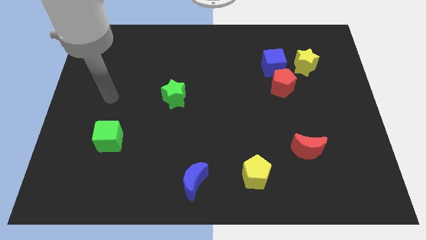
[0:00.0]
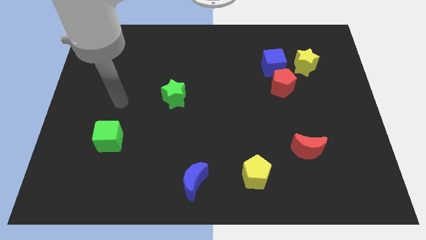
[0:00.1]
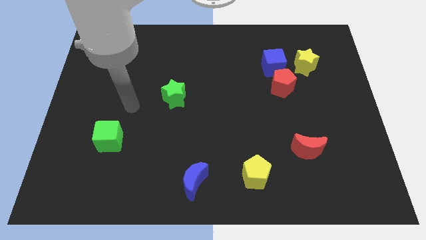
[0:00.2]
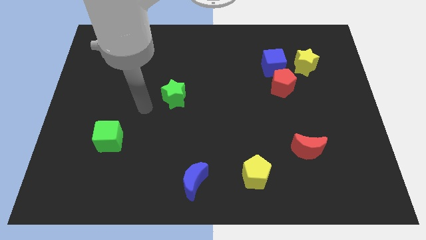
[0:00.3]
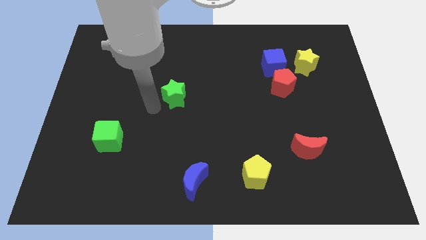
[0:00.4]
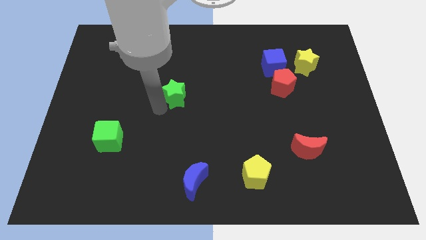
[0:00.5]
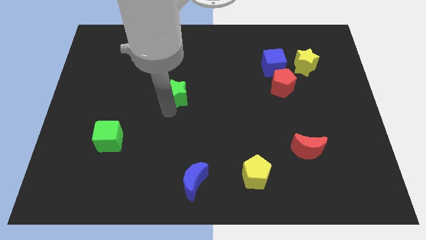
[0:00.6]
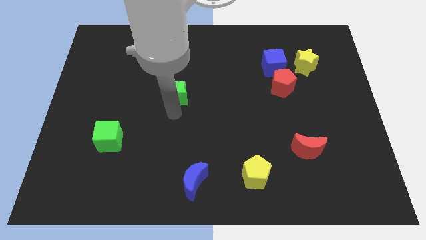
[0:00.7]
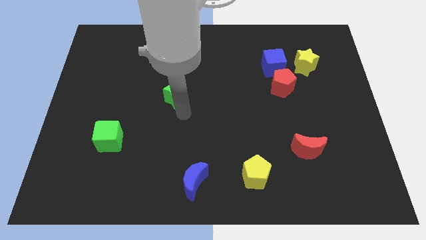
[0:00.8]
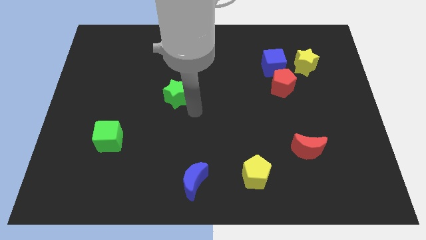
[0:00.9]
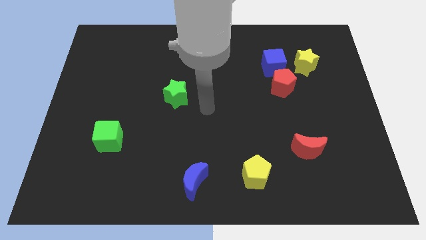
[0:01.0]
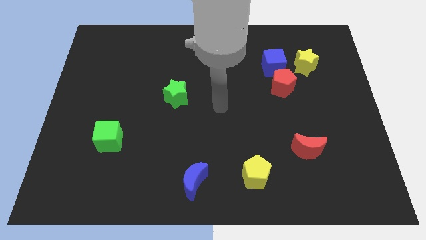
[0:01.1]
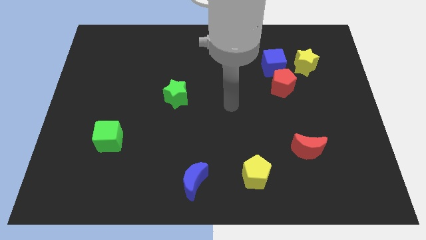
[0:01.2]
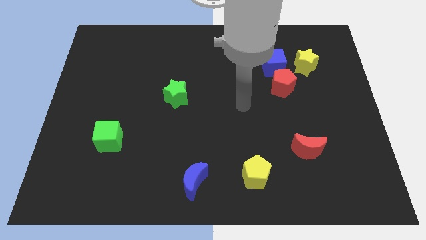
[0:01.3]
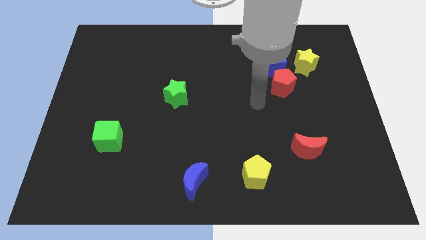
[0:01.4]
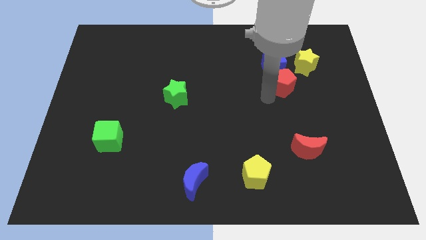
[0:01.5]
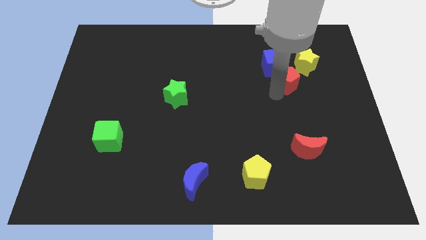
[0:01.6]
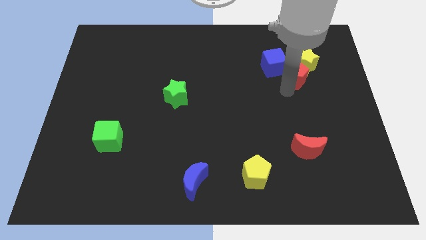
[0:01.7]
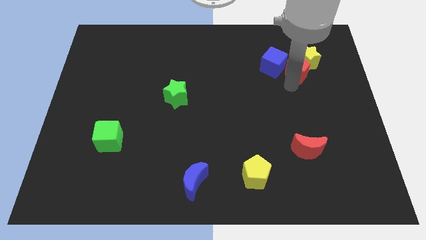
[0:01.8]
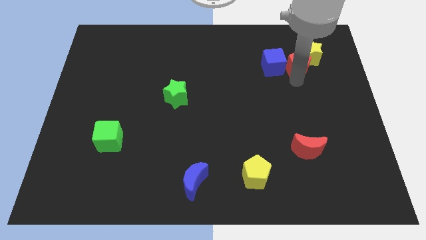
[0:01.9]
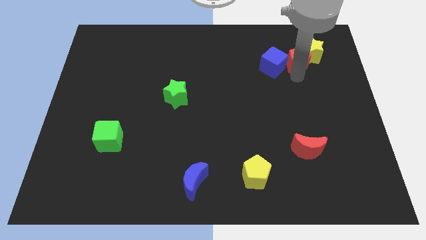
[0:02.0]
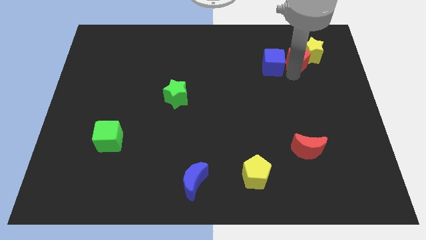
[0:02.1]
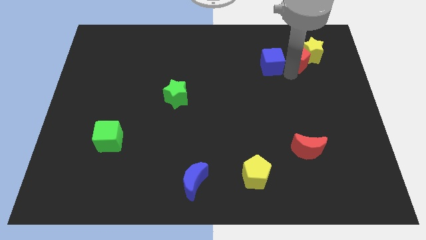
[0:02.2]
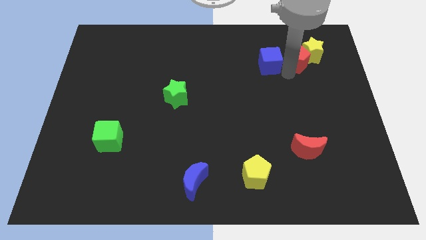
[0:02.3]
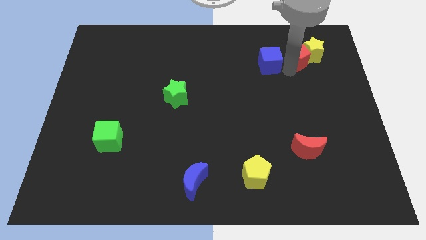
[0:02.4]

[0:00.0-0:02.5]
move the blue cube away from the red pentagon and yellow star

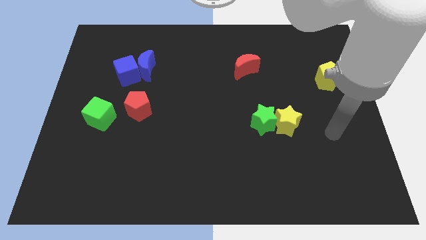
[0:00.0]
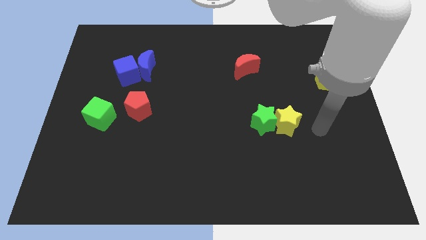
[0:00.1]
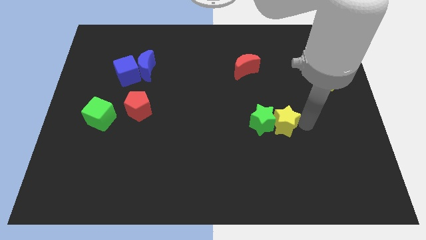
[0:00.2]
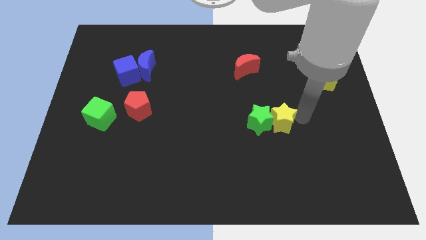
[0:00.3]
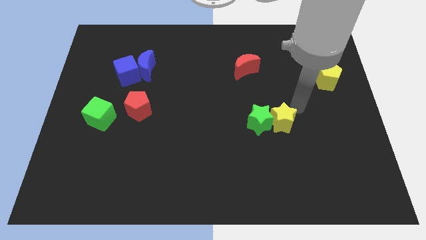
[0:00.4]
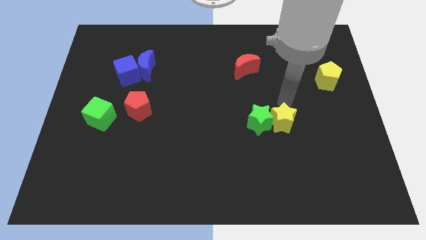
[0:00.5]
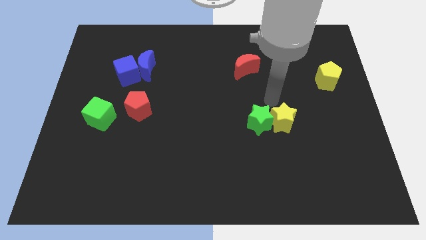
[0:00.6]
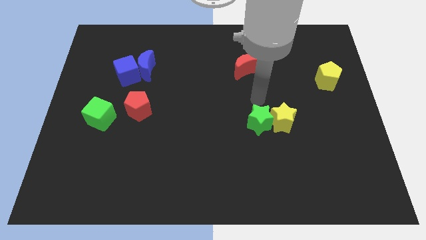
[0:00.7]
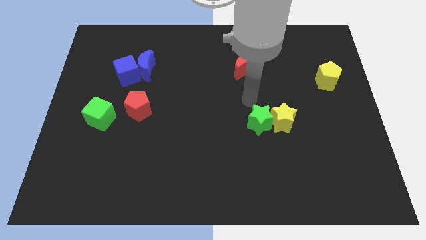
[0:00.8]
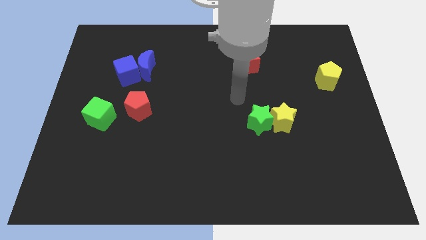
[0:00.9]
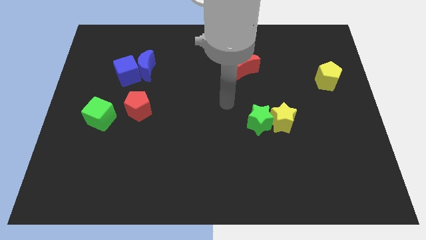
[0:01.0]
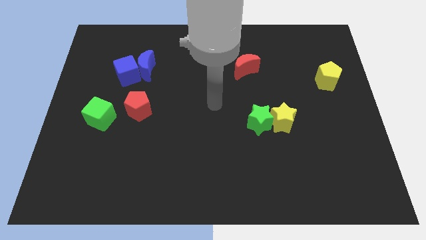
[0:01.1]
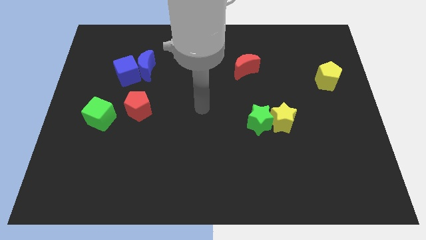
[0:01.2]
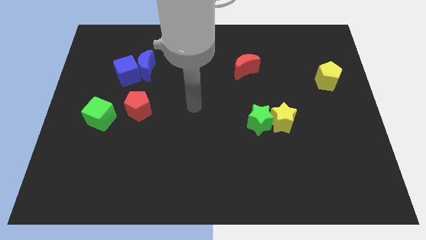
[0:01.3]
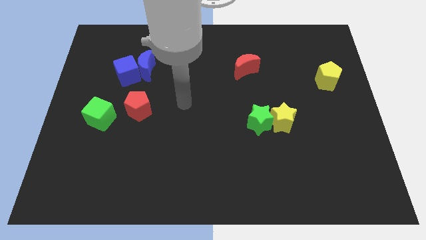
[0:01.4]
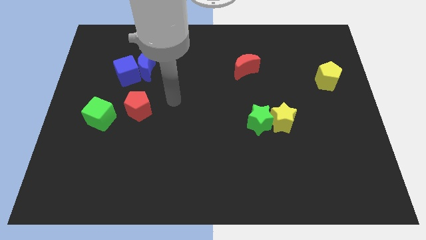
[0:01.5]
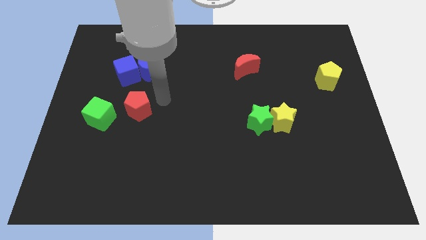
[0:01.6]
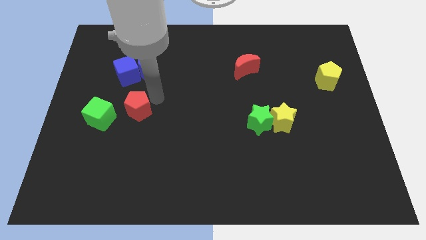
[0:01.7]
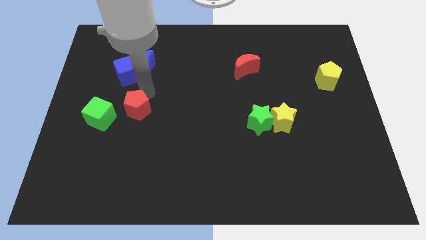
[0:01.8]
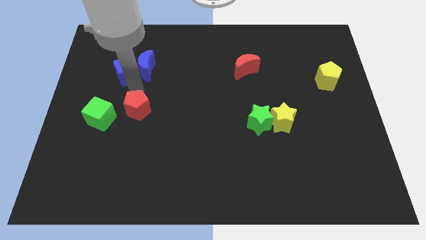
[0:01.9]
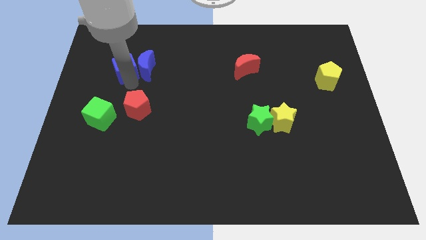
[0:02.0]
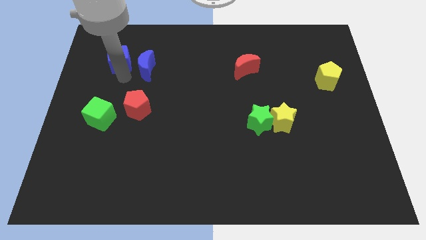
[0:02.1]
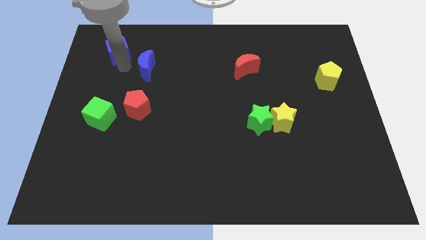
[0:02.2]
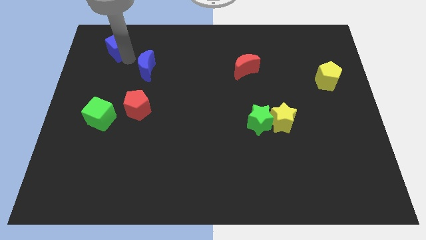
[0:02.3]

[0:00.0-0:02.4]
move the blue moon away from the blue cube

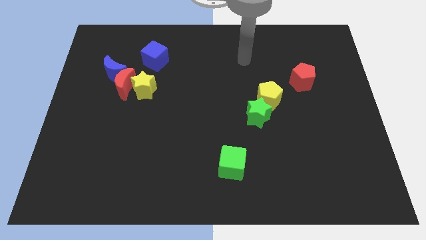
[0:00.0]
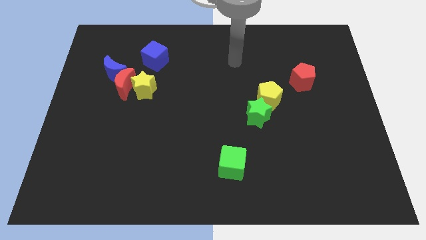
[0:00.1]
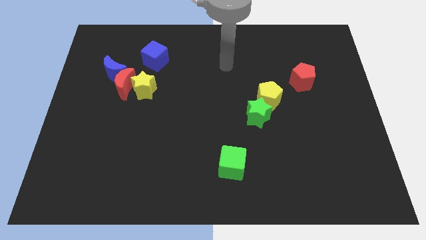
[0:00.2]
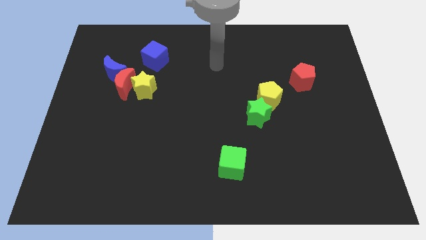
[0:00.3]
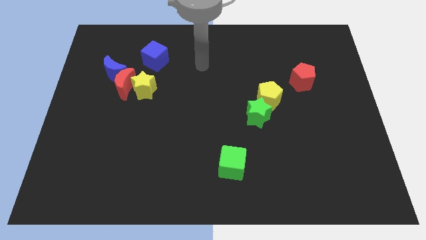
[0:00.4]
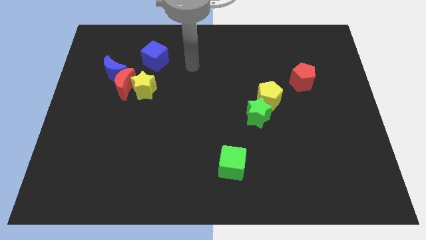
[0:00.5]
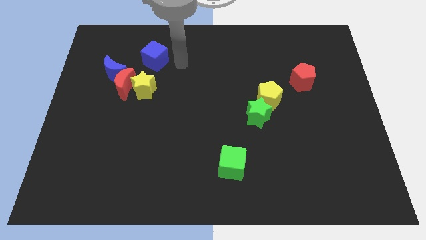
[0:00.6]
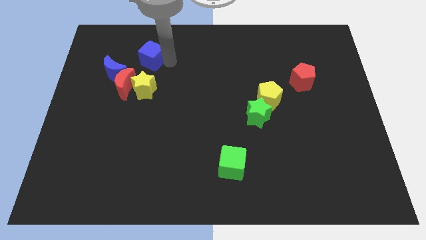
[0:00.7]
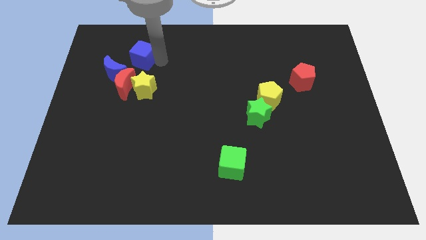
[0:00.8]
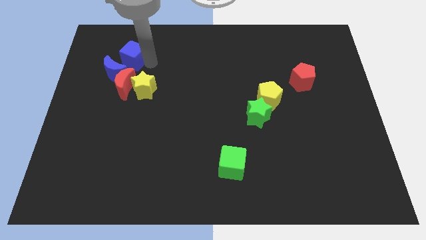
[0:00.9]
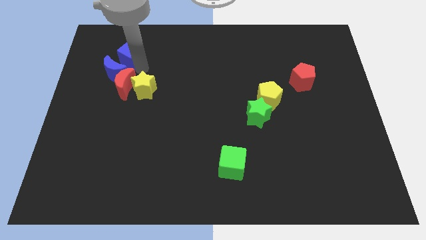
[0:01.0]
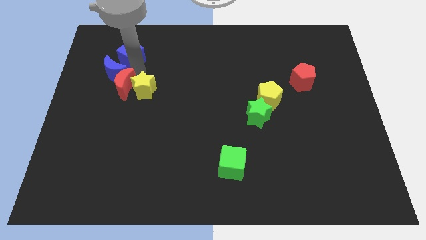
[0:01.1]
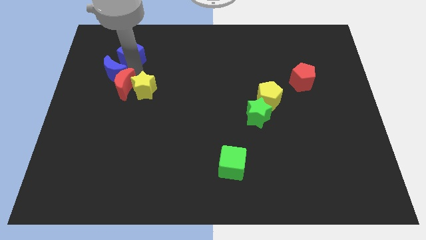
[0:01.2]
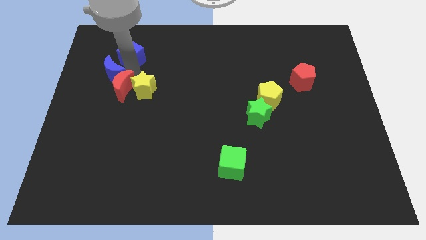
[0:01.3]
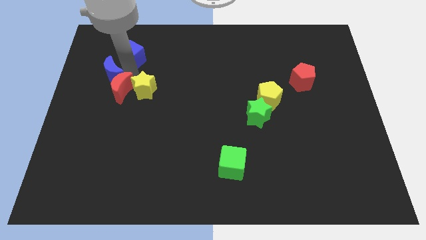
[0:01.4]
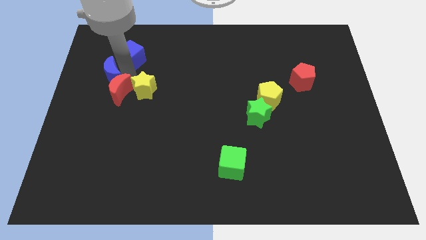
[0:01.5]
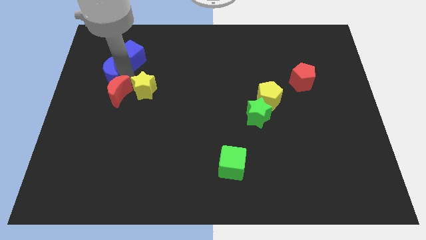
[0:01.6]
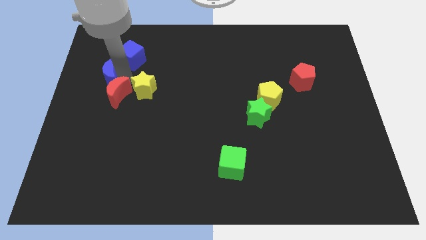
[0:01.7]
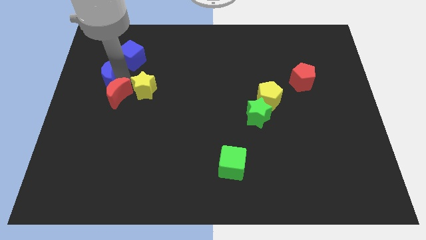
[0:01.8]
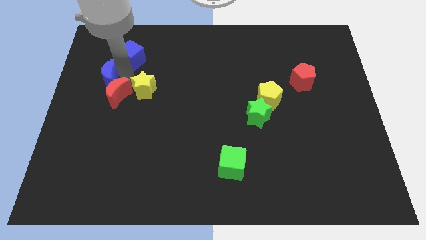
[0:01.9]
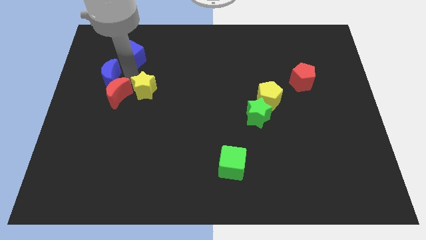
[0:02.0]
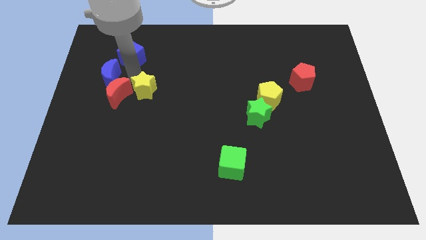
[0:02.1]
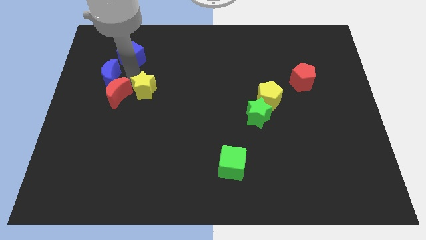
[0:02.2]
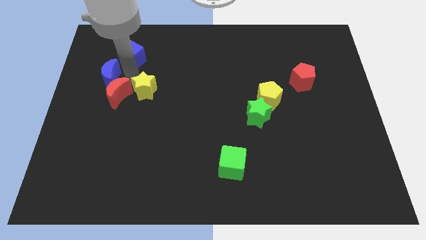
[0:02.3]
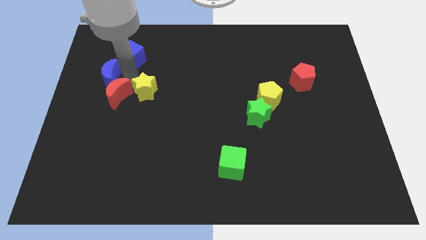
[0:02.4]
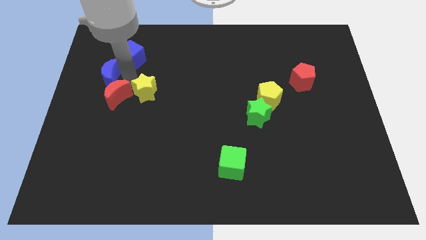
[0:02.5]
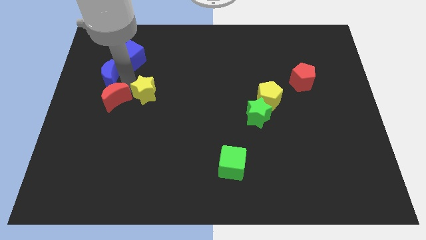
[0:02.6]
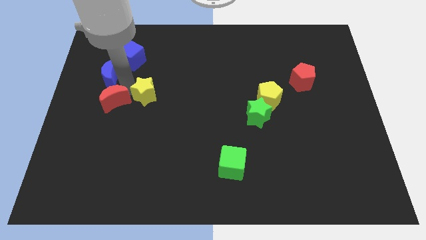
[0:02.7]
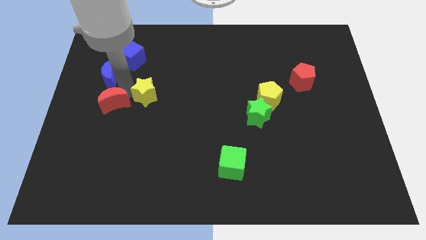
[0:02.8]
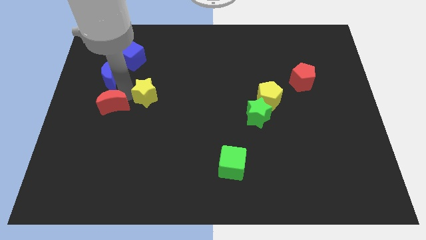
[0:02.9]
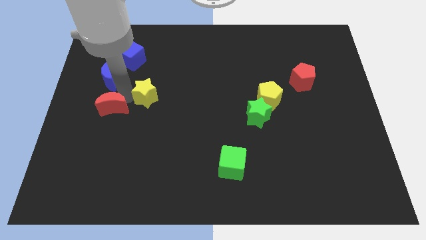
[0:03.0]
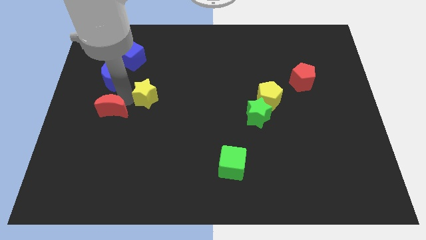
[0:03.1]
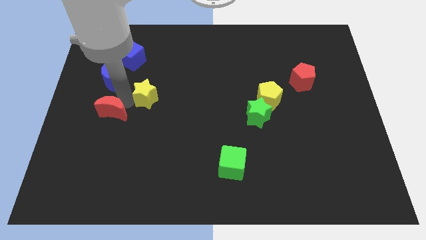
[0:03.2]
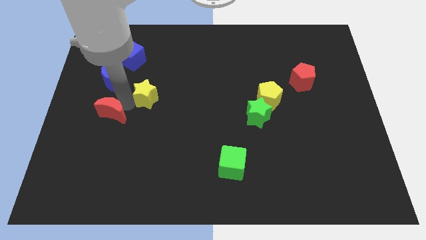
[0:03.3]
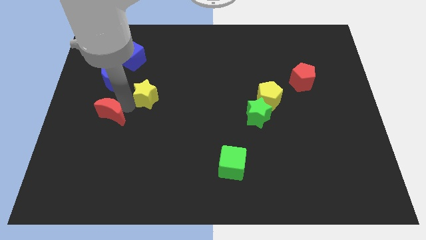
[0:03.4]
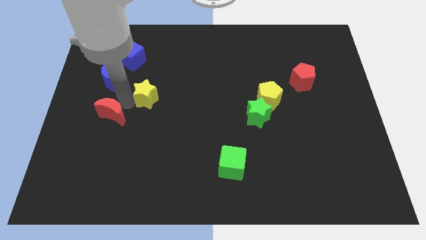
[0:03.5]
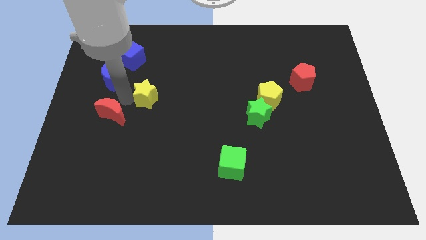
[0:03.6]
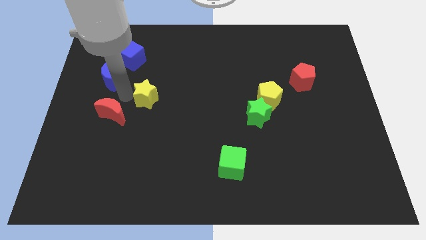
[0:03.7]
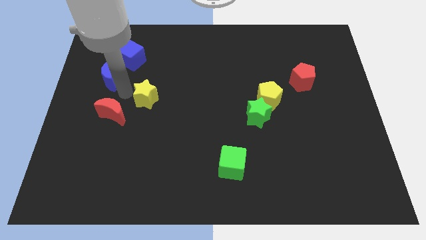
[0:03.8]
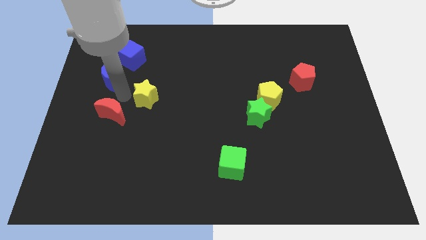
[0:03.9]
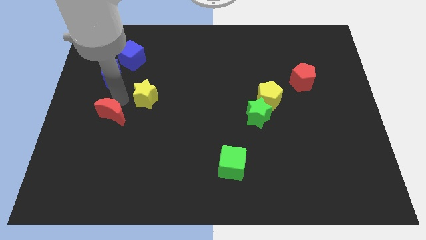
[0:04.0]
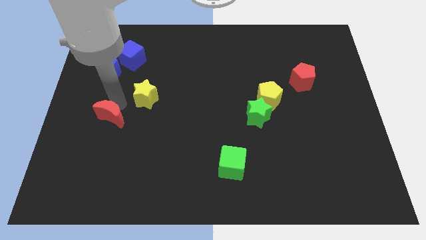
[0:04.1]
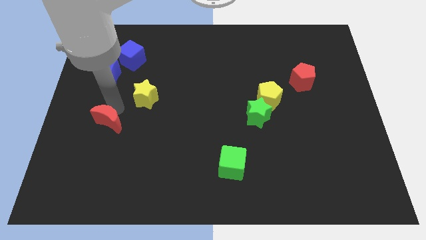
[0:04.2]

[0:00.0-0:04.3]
separate the red moon from the yellow star and blue moon

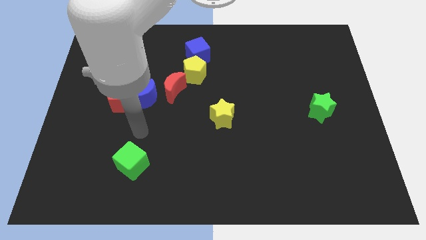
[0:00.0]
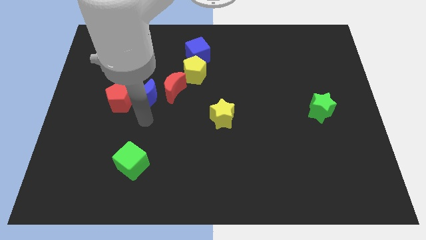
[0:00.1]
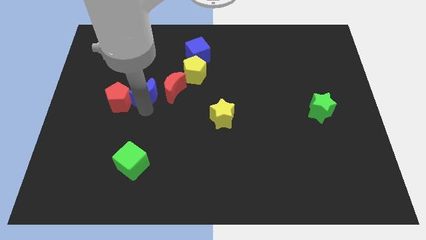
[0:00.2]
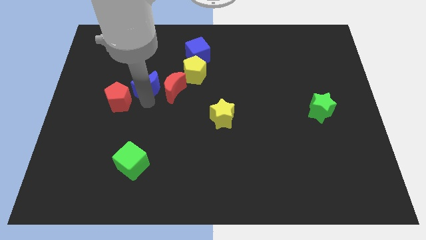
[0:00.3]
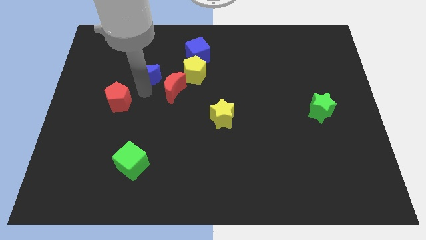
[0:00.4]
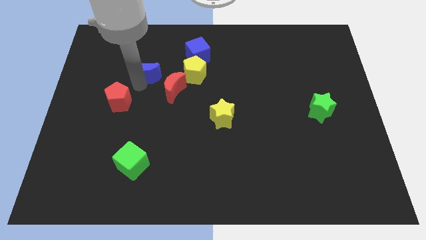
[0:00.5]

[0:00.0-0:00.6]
pull the red pentagon apart from the blue moon
